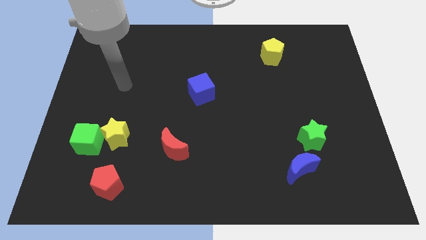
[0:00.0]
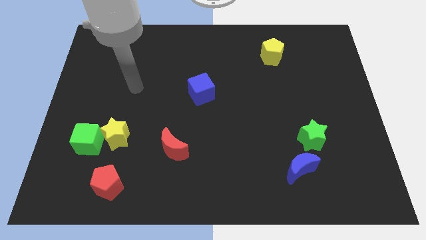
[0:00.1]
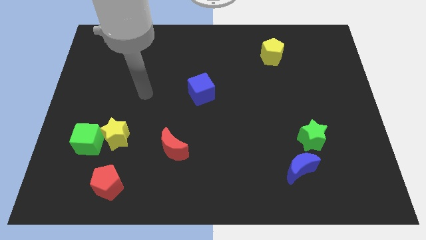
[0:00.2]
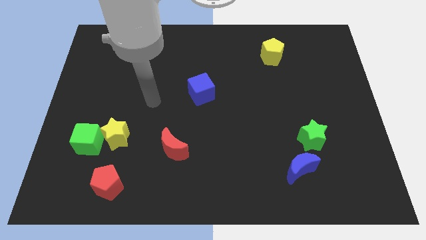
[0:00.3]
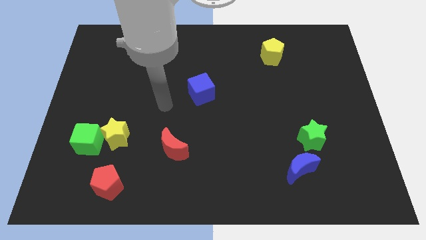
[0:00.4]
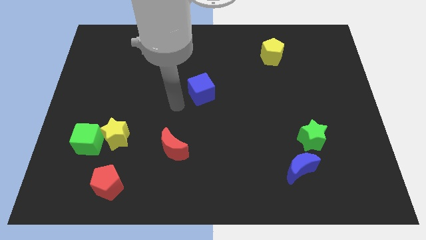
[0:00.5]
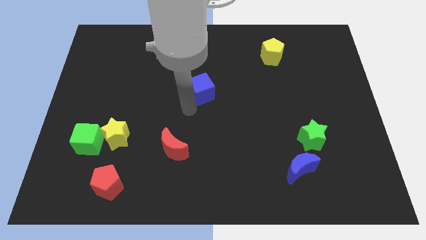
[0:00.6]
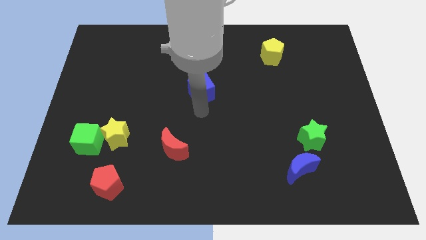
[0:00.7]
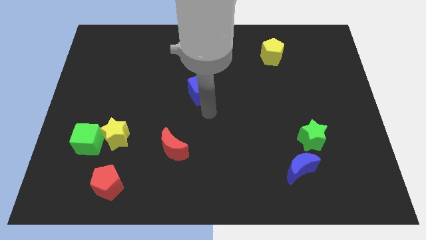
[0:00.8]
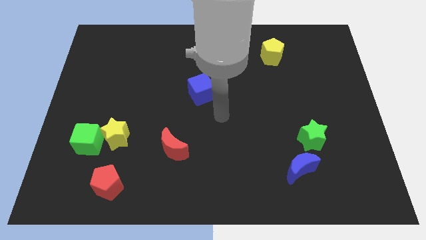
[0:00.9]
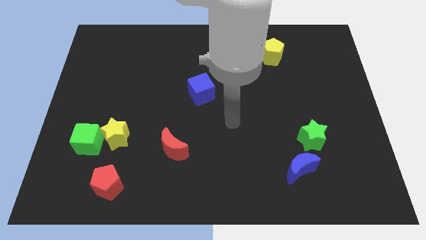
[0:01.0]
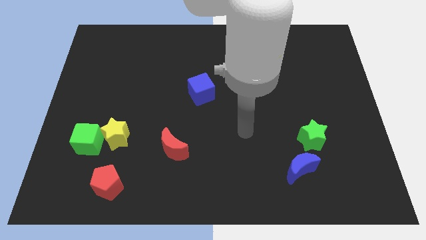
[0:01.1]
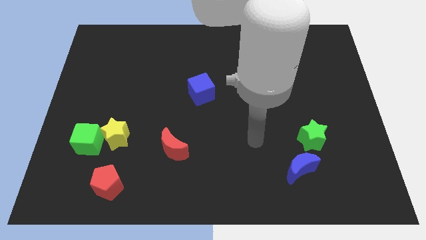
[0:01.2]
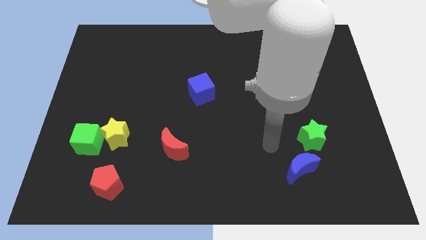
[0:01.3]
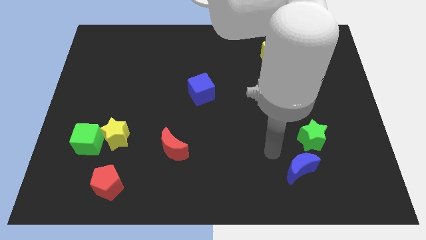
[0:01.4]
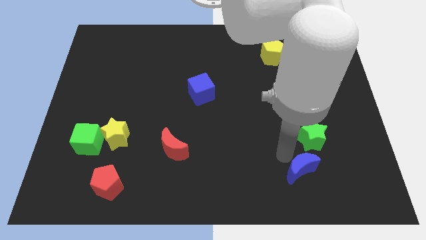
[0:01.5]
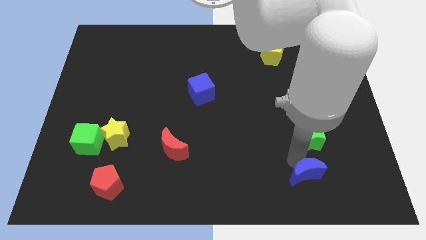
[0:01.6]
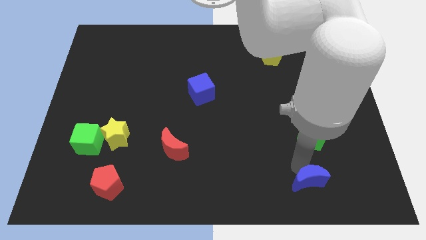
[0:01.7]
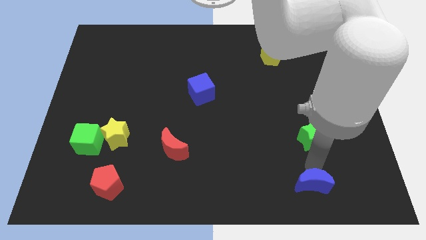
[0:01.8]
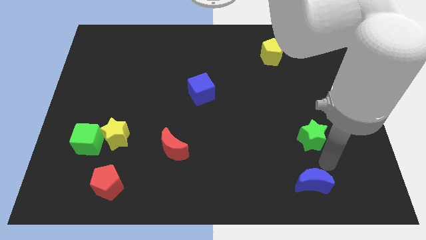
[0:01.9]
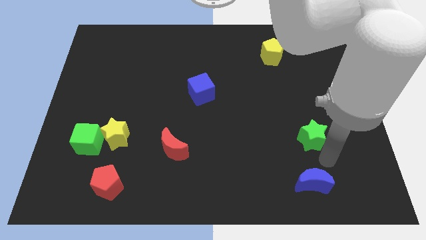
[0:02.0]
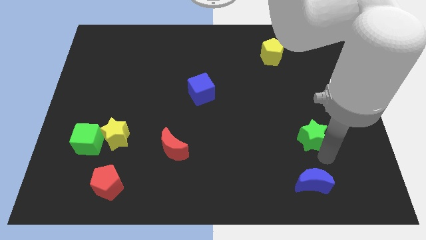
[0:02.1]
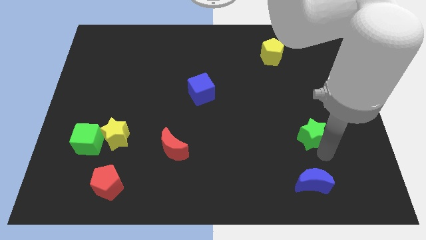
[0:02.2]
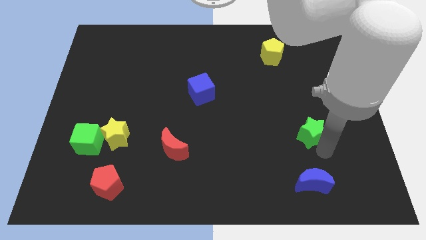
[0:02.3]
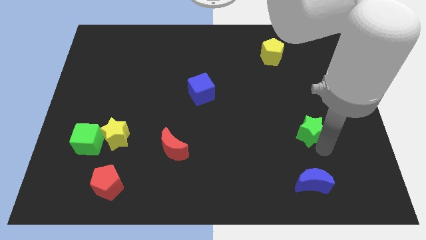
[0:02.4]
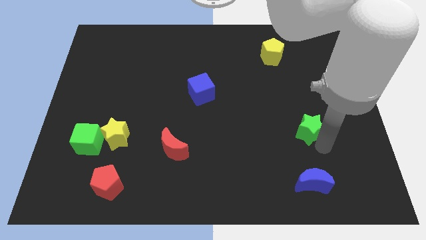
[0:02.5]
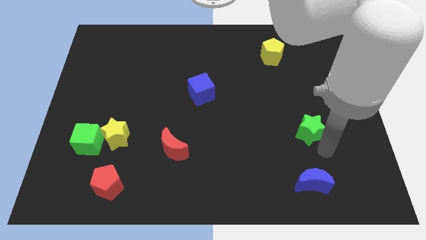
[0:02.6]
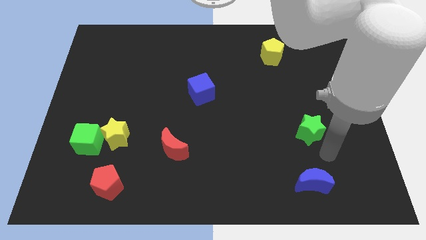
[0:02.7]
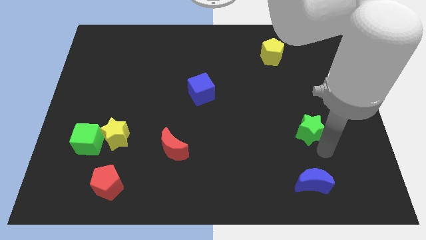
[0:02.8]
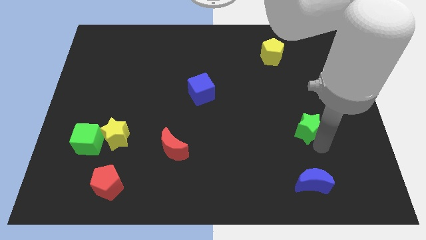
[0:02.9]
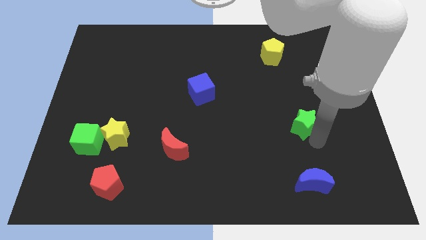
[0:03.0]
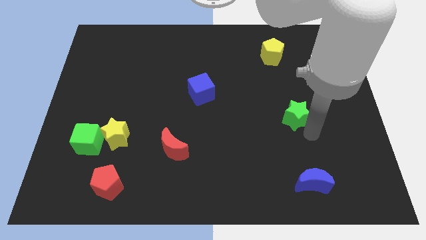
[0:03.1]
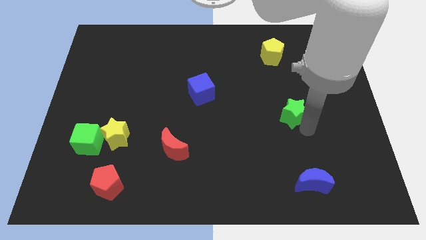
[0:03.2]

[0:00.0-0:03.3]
slide the green star upwards and then left slightly

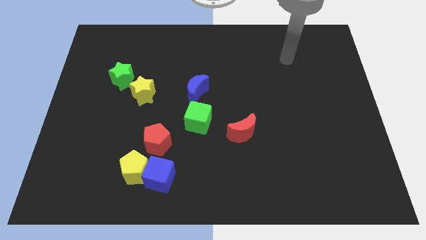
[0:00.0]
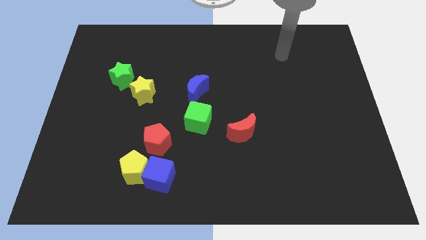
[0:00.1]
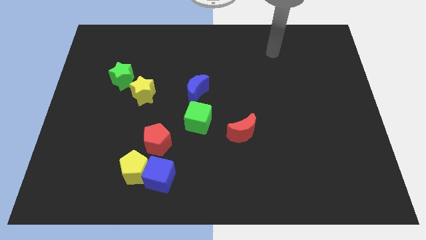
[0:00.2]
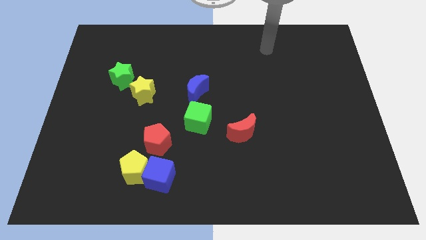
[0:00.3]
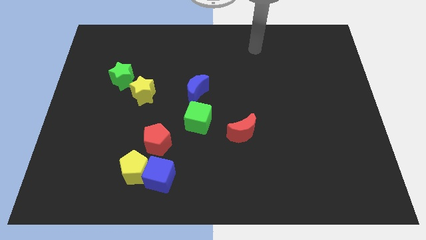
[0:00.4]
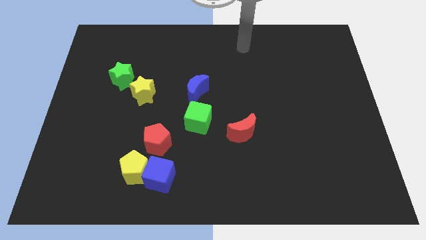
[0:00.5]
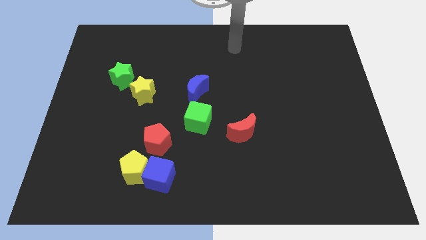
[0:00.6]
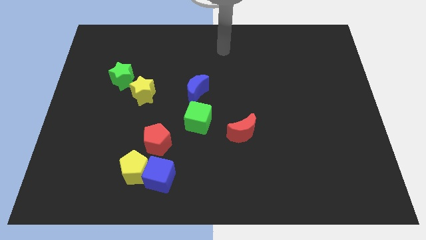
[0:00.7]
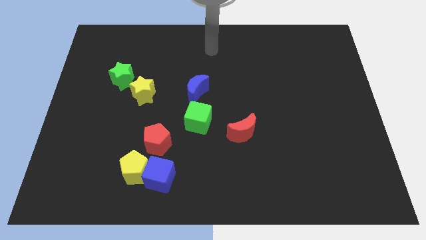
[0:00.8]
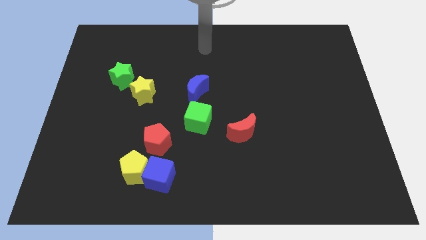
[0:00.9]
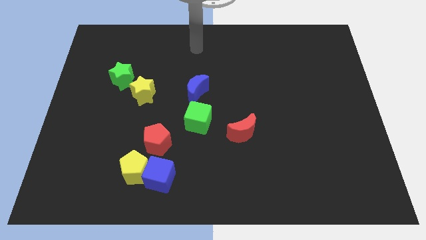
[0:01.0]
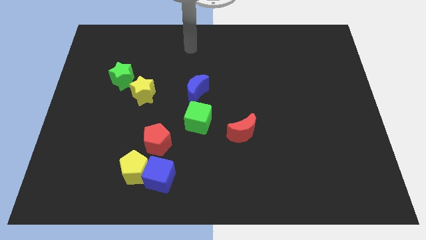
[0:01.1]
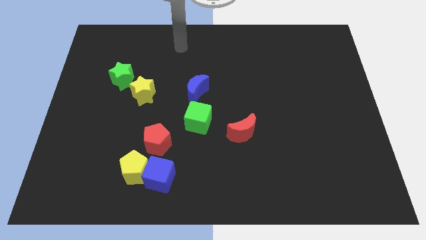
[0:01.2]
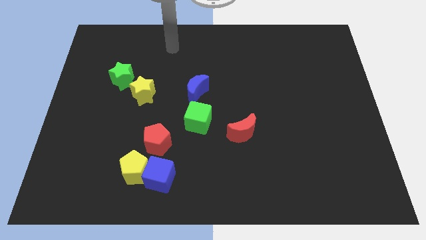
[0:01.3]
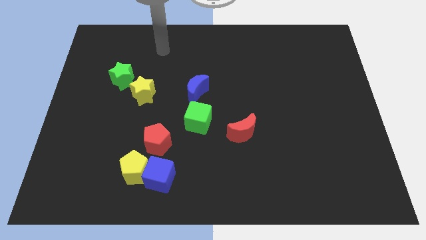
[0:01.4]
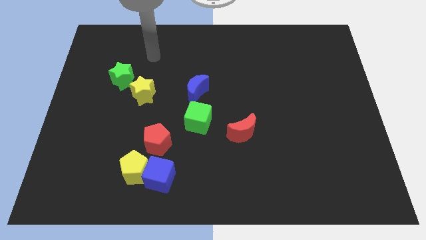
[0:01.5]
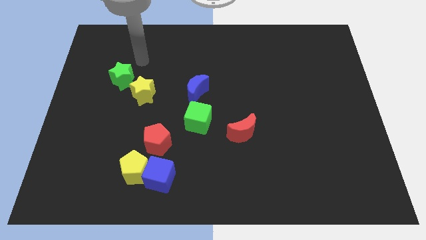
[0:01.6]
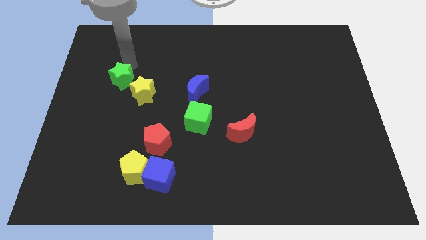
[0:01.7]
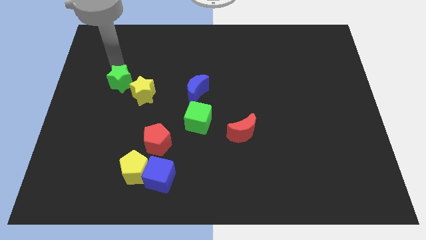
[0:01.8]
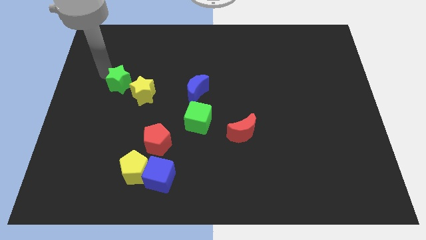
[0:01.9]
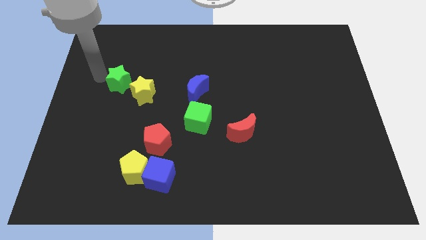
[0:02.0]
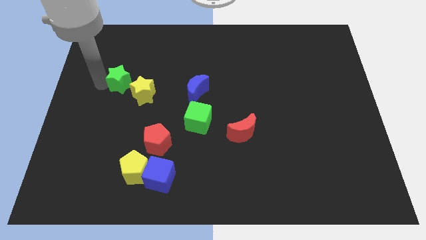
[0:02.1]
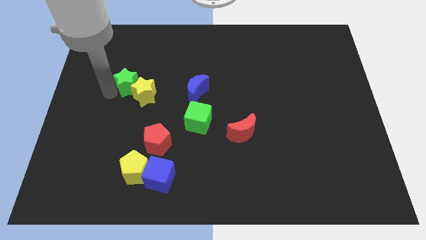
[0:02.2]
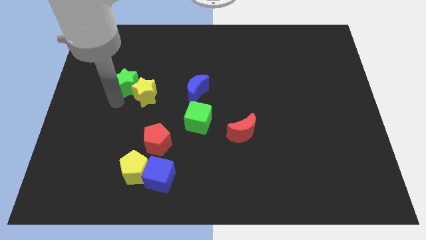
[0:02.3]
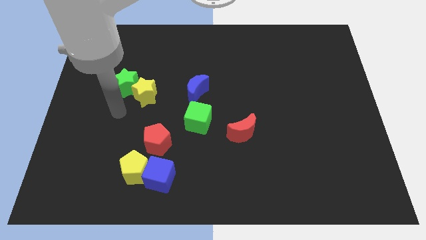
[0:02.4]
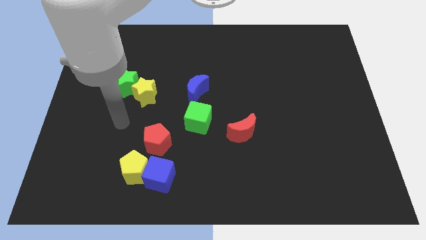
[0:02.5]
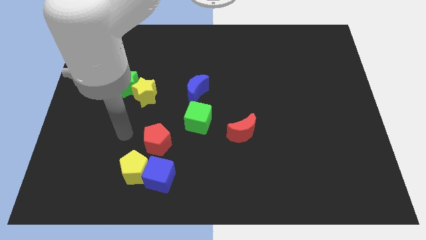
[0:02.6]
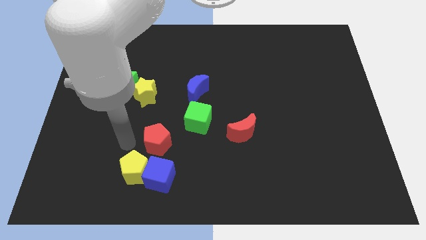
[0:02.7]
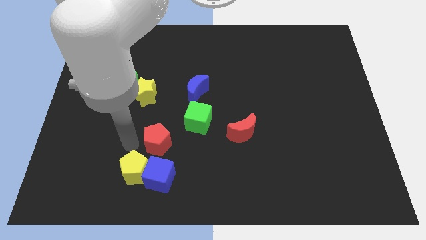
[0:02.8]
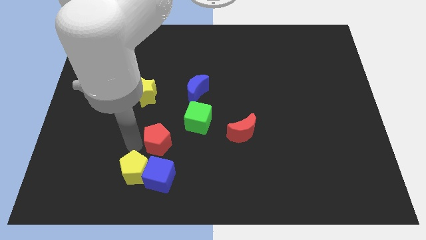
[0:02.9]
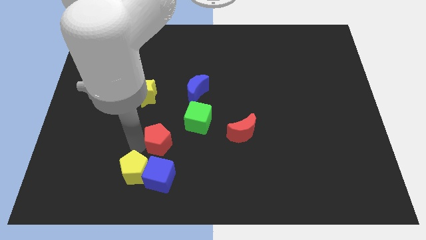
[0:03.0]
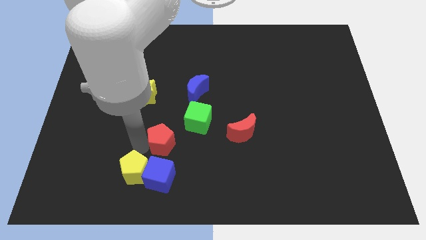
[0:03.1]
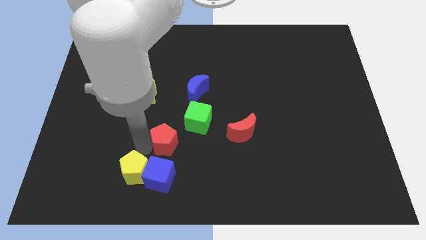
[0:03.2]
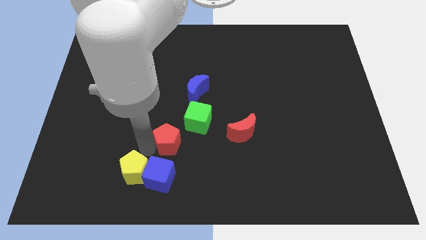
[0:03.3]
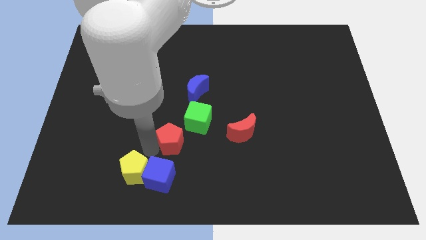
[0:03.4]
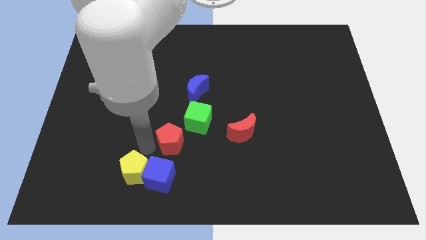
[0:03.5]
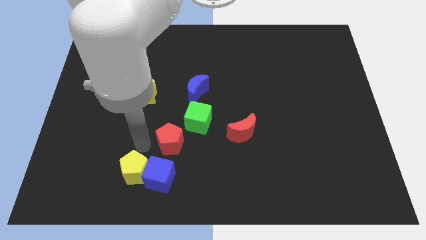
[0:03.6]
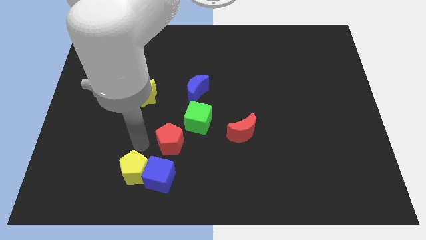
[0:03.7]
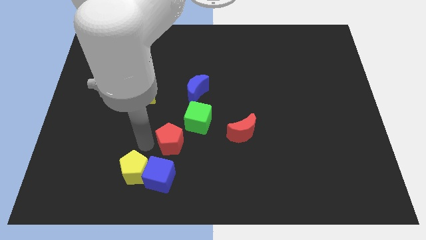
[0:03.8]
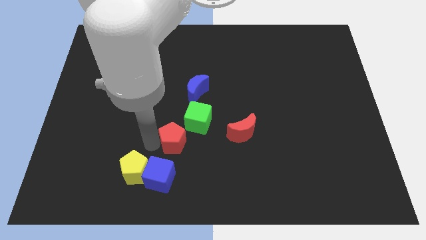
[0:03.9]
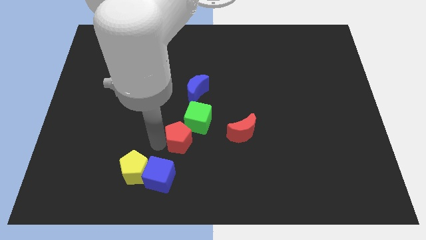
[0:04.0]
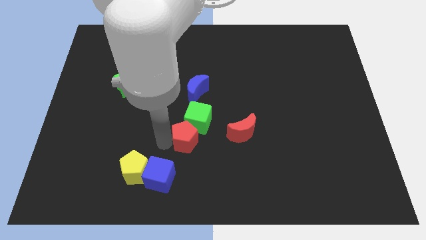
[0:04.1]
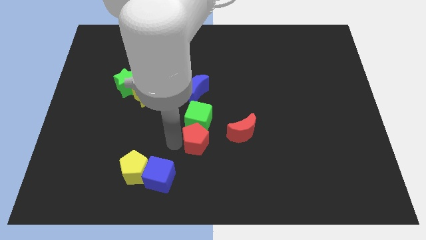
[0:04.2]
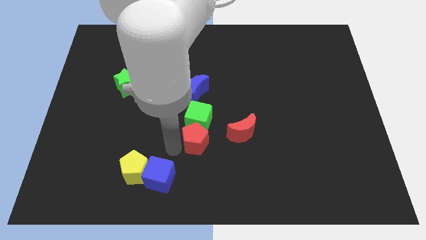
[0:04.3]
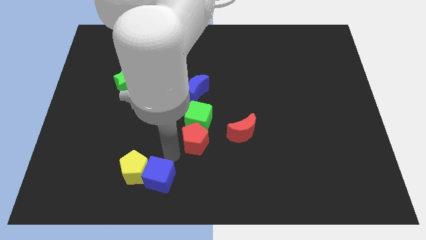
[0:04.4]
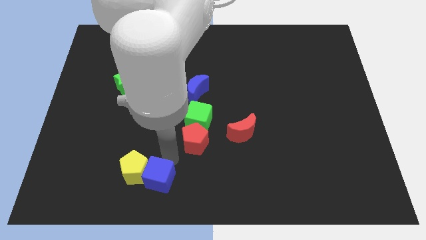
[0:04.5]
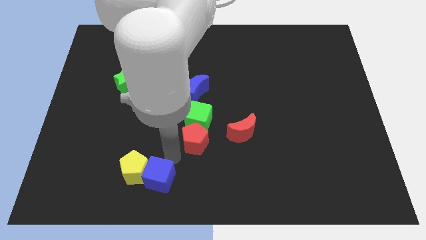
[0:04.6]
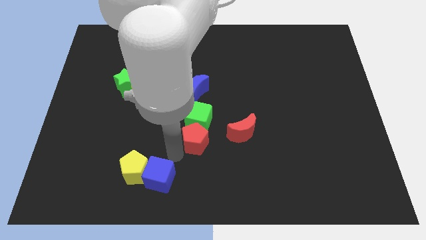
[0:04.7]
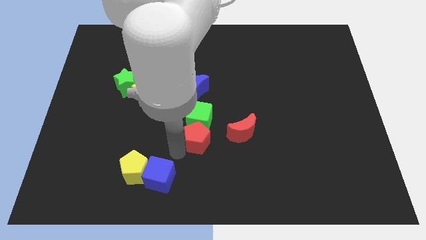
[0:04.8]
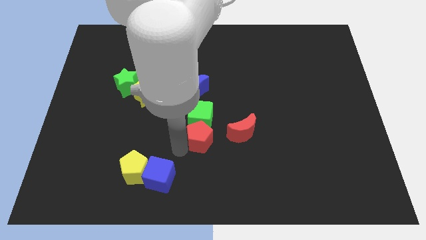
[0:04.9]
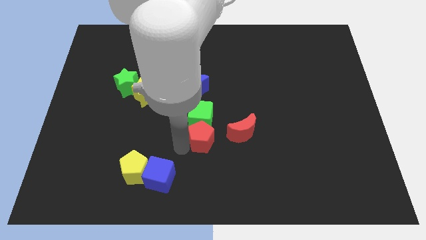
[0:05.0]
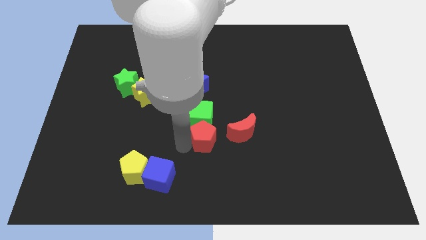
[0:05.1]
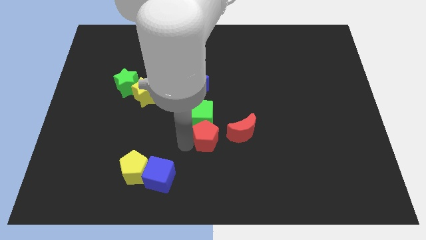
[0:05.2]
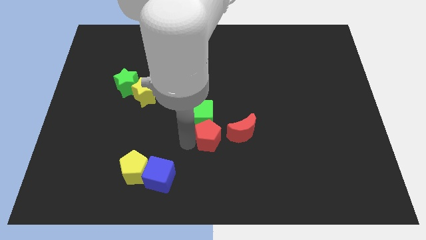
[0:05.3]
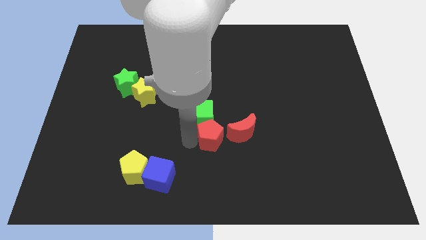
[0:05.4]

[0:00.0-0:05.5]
slide the red pentagon somewhat upwards and to the right diagonally
